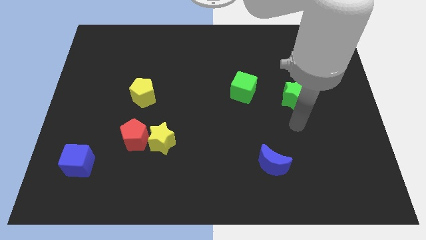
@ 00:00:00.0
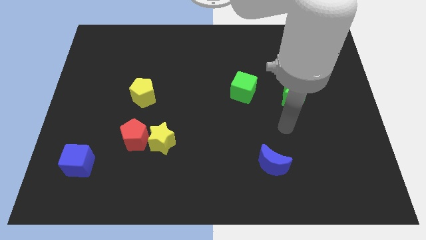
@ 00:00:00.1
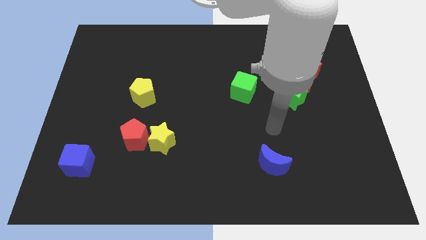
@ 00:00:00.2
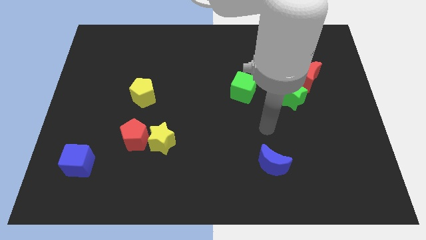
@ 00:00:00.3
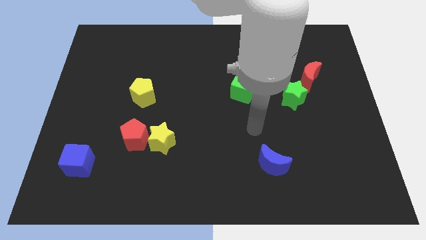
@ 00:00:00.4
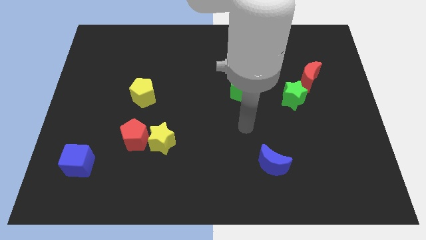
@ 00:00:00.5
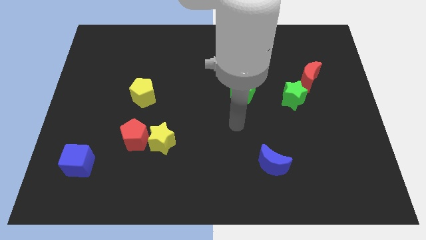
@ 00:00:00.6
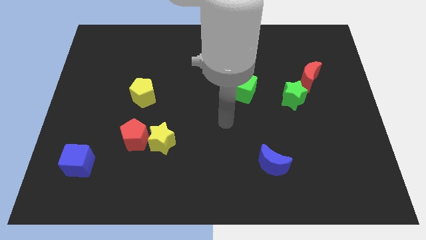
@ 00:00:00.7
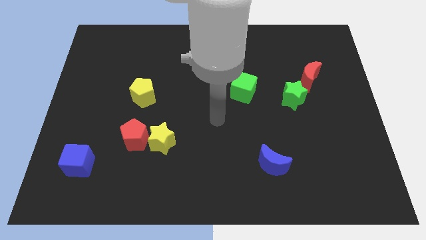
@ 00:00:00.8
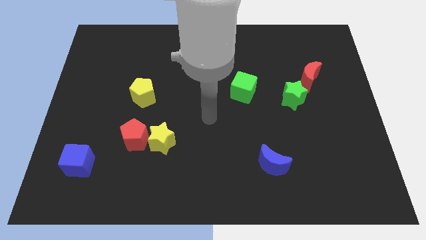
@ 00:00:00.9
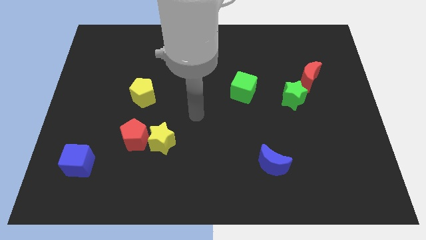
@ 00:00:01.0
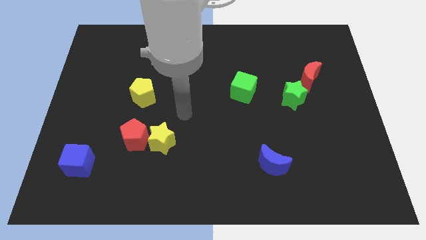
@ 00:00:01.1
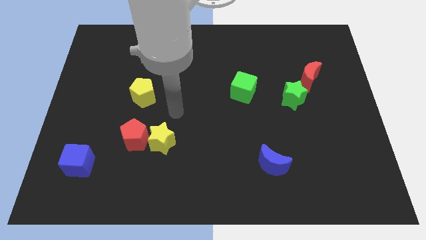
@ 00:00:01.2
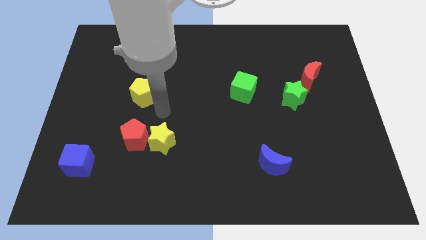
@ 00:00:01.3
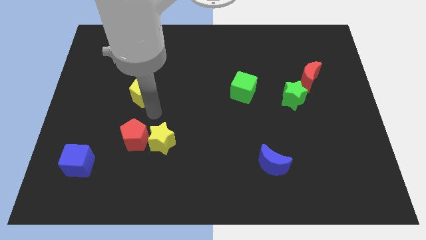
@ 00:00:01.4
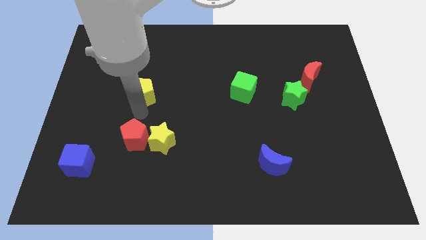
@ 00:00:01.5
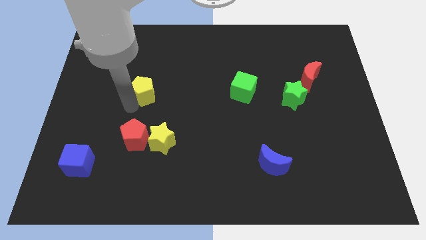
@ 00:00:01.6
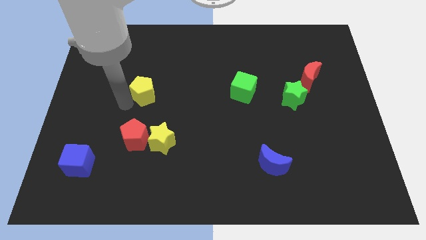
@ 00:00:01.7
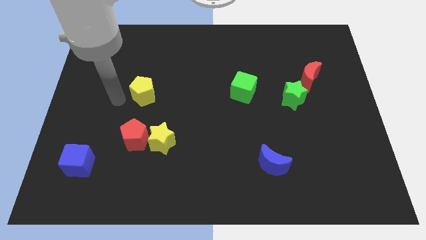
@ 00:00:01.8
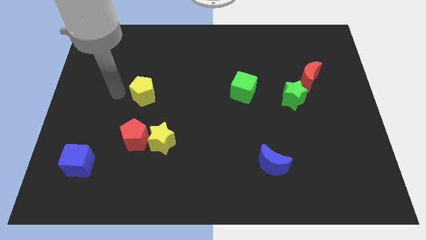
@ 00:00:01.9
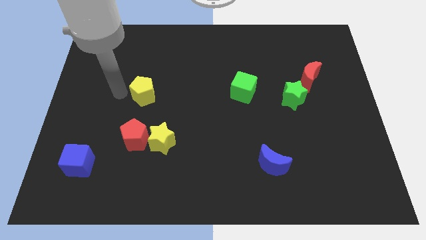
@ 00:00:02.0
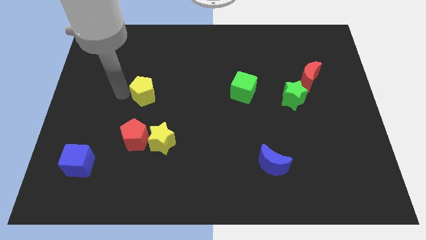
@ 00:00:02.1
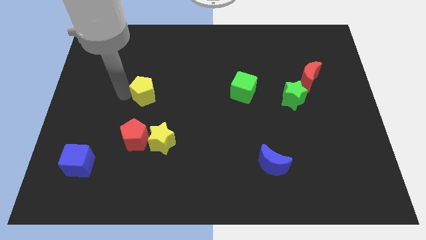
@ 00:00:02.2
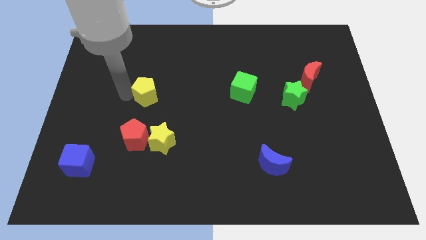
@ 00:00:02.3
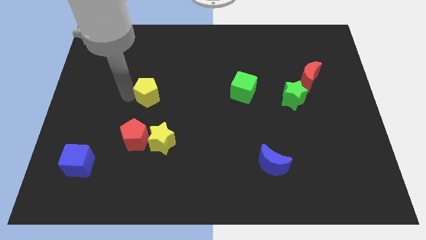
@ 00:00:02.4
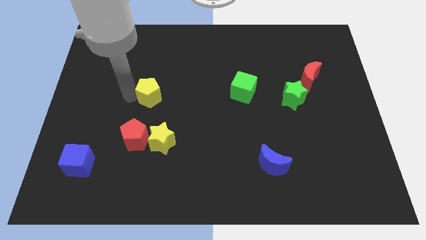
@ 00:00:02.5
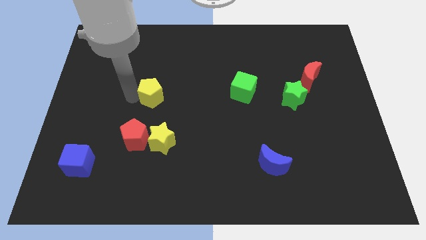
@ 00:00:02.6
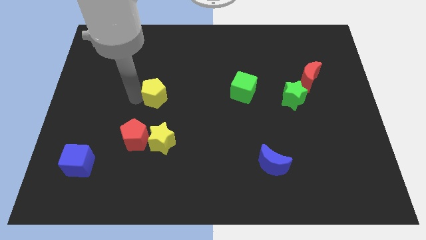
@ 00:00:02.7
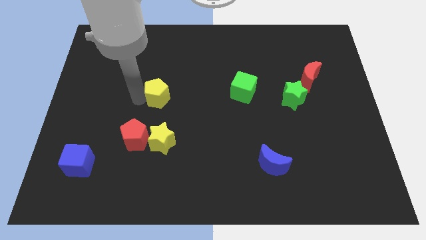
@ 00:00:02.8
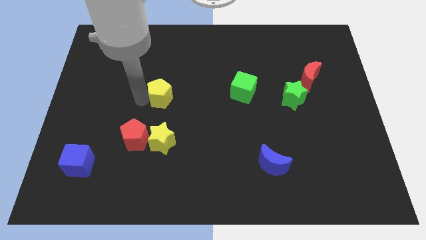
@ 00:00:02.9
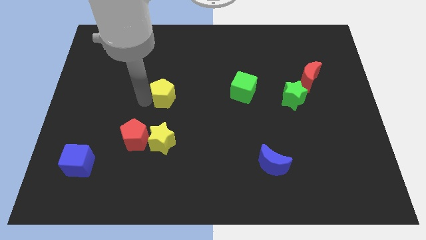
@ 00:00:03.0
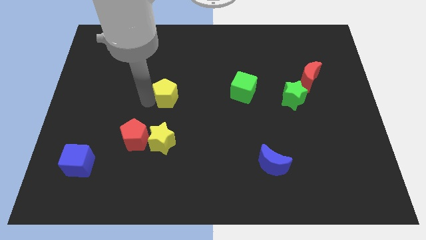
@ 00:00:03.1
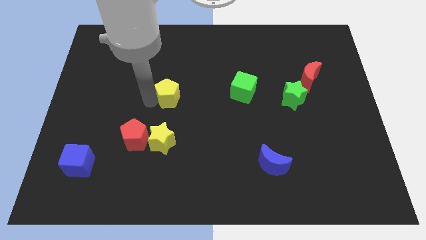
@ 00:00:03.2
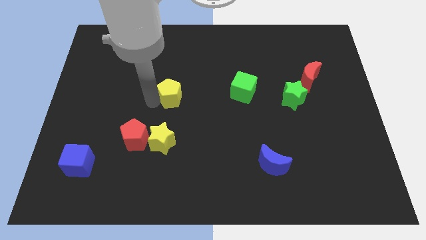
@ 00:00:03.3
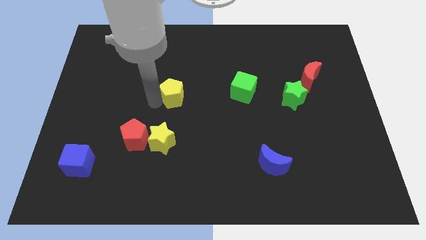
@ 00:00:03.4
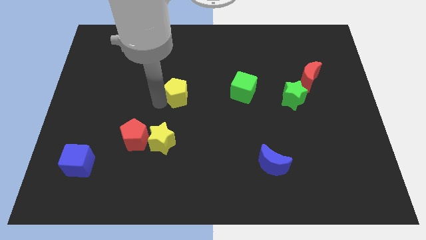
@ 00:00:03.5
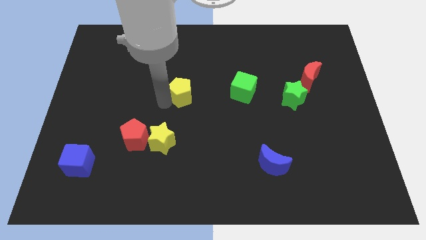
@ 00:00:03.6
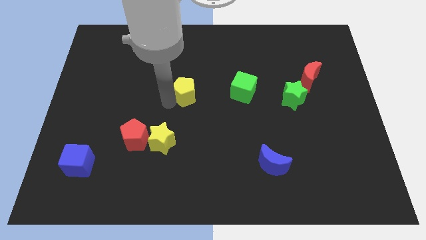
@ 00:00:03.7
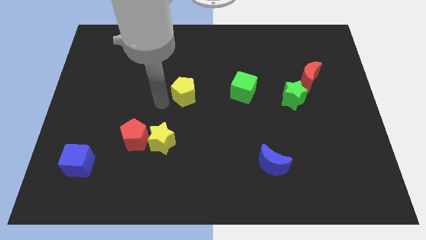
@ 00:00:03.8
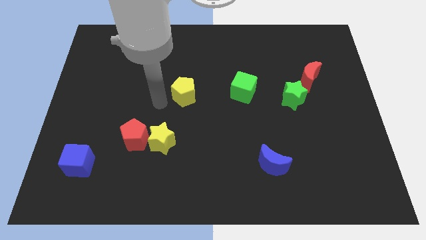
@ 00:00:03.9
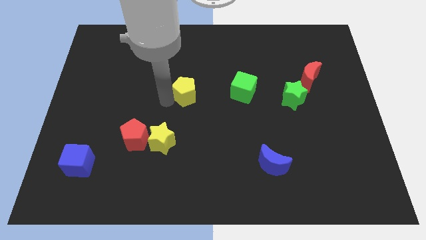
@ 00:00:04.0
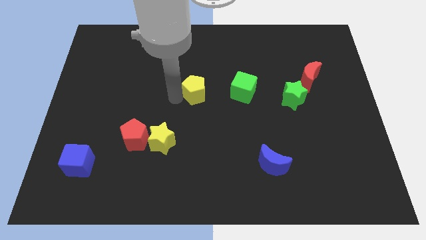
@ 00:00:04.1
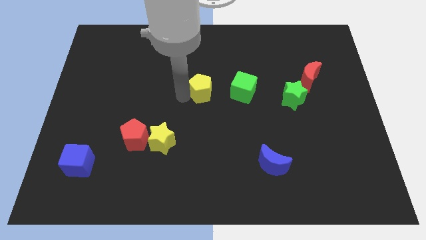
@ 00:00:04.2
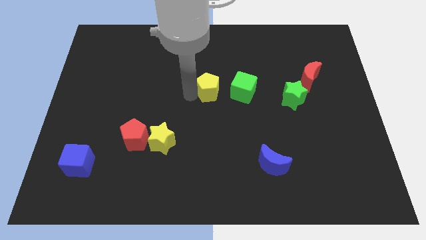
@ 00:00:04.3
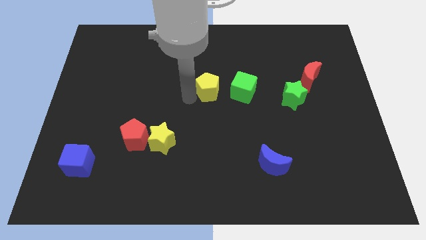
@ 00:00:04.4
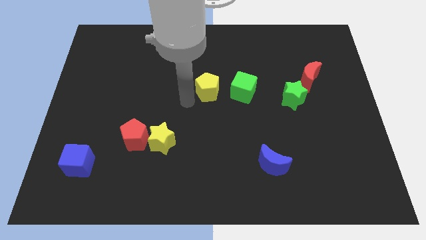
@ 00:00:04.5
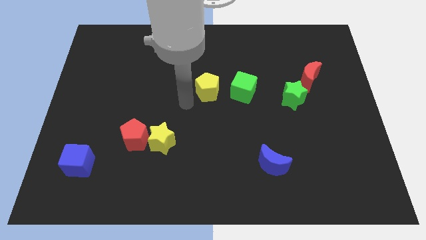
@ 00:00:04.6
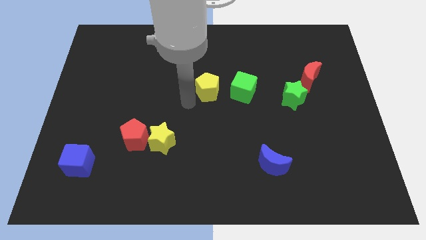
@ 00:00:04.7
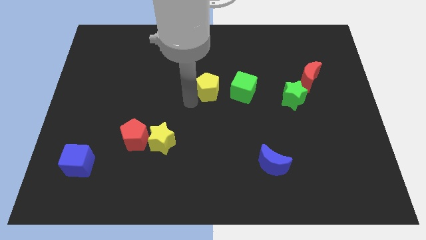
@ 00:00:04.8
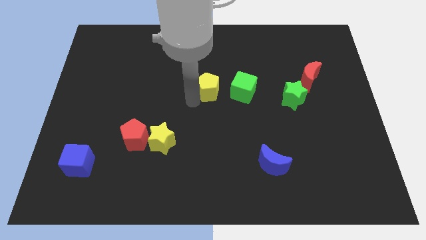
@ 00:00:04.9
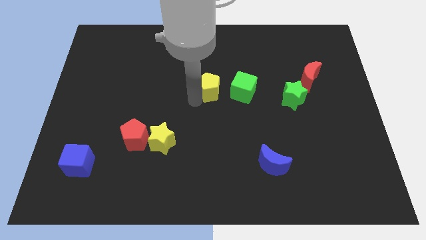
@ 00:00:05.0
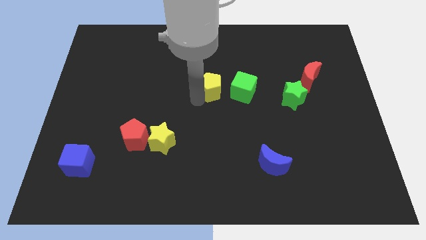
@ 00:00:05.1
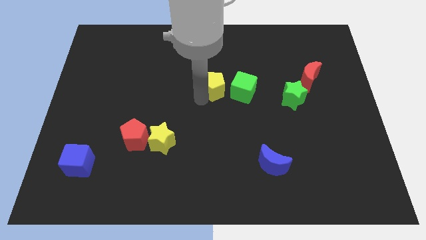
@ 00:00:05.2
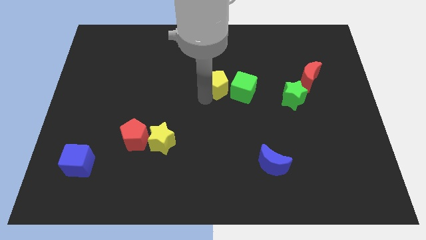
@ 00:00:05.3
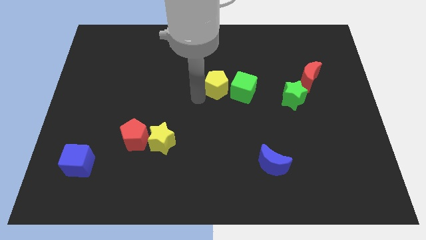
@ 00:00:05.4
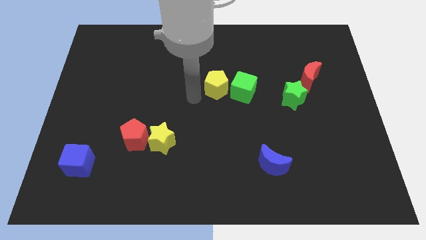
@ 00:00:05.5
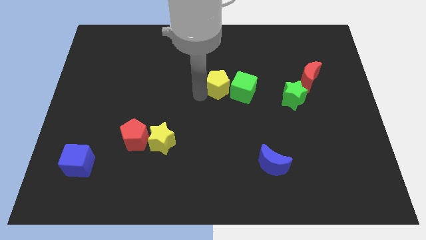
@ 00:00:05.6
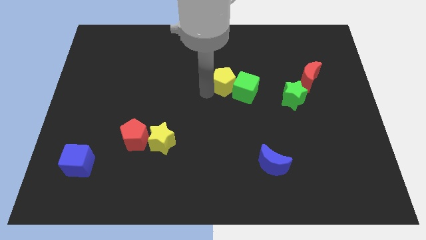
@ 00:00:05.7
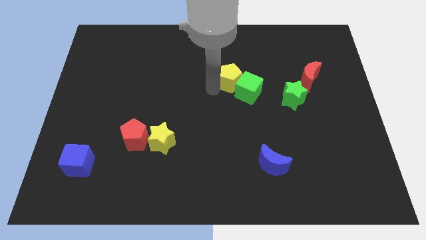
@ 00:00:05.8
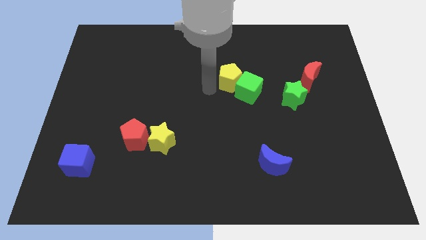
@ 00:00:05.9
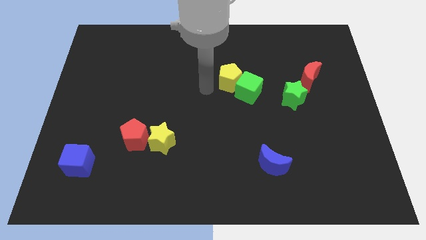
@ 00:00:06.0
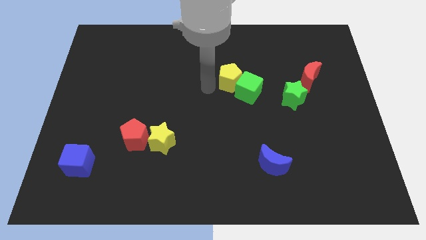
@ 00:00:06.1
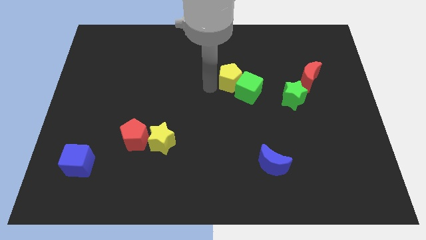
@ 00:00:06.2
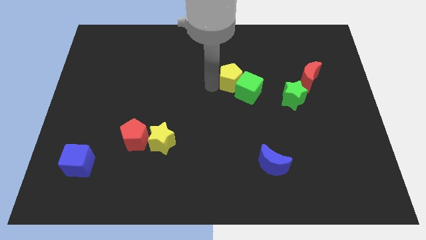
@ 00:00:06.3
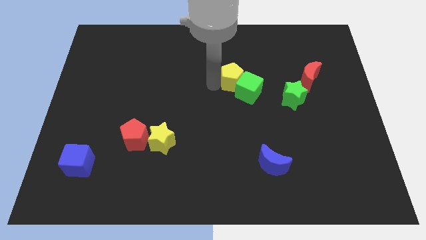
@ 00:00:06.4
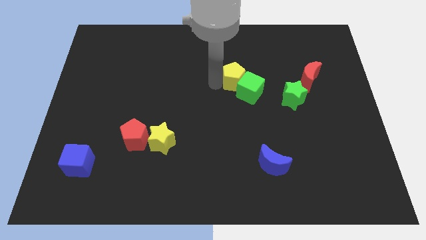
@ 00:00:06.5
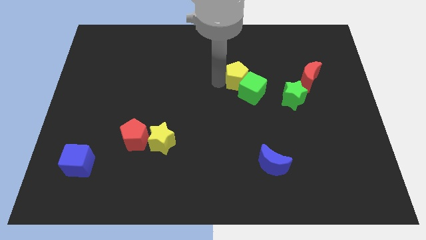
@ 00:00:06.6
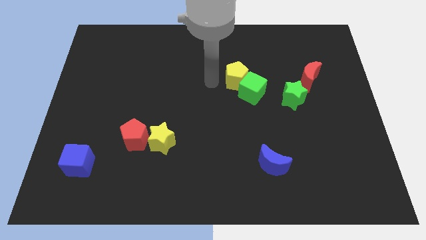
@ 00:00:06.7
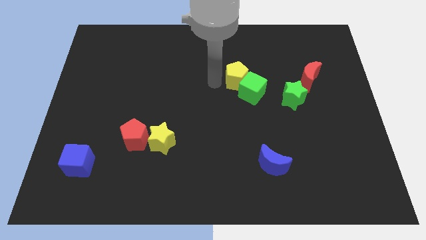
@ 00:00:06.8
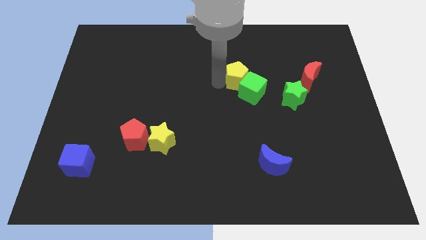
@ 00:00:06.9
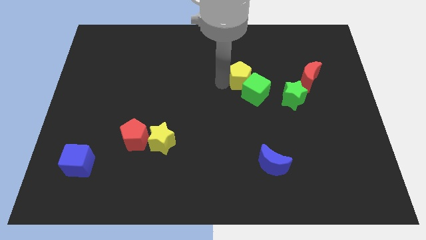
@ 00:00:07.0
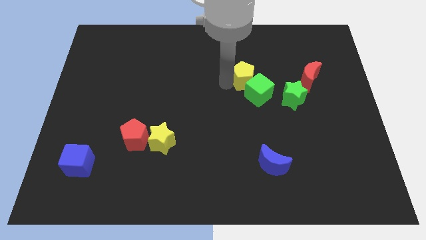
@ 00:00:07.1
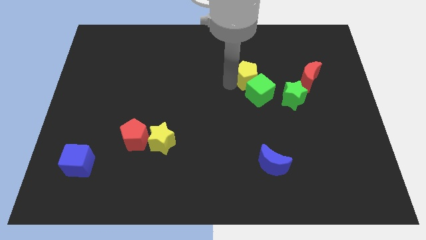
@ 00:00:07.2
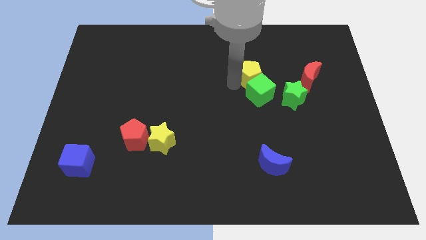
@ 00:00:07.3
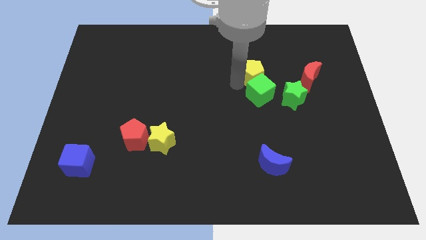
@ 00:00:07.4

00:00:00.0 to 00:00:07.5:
push the yellow pentagon to the top right of the green cube
